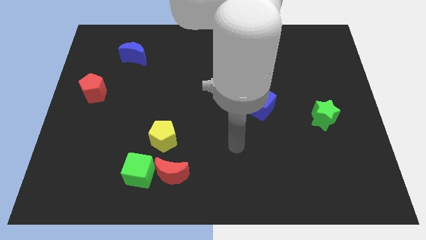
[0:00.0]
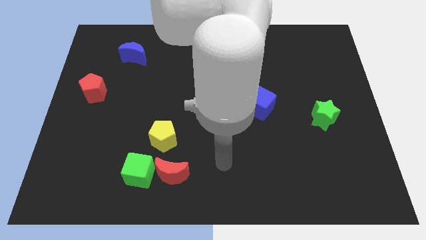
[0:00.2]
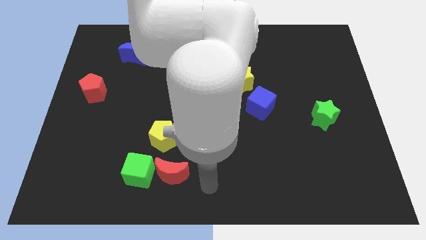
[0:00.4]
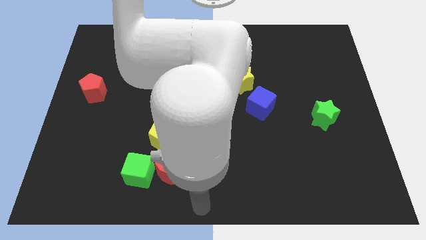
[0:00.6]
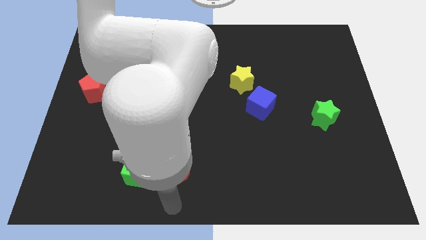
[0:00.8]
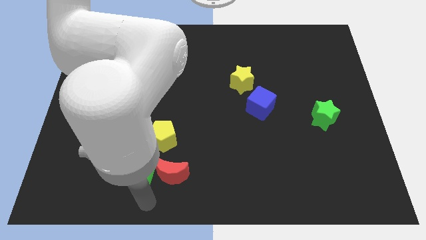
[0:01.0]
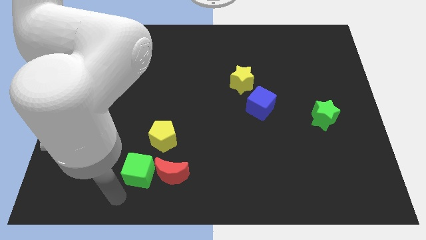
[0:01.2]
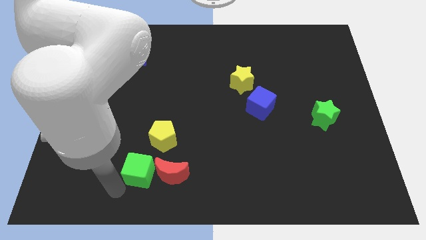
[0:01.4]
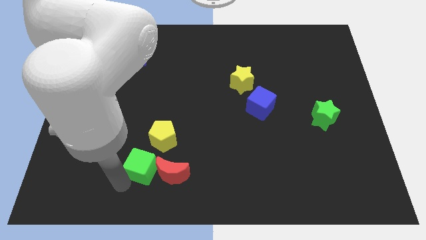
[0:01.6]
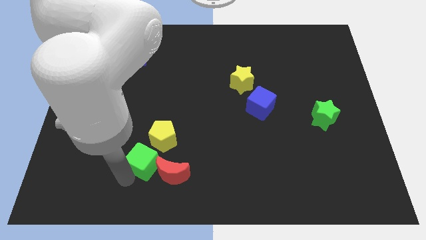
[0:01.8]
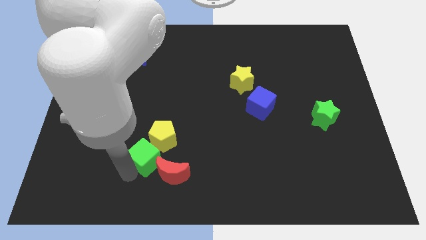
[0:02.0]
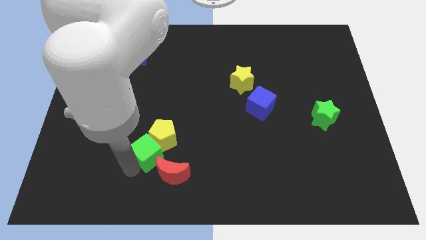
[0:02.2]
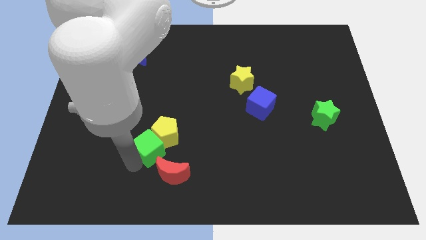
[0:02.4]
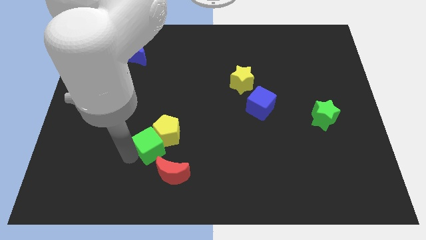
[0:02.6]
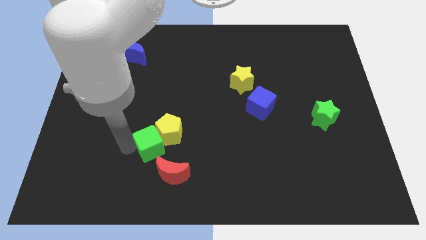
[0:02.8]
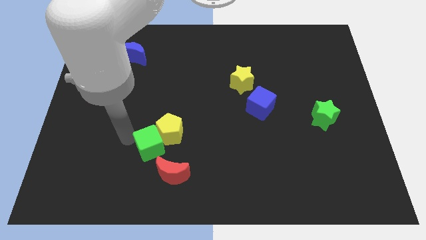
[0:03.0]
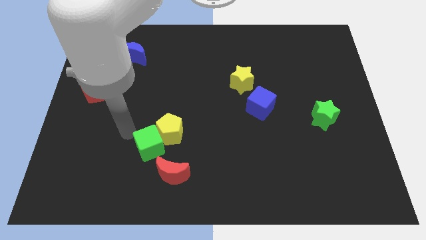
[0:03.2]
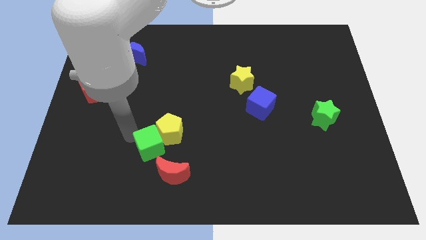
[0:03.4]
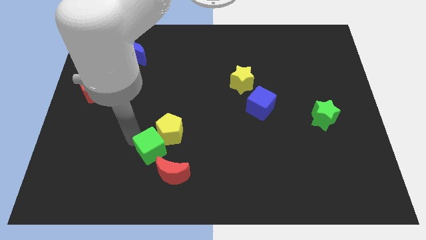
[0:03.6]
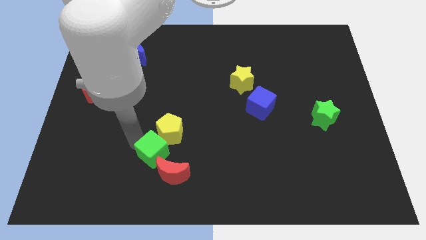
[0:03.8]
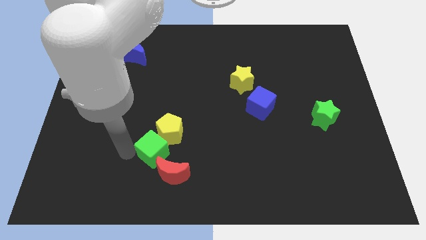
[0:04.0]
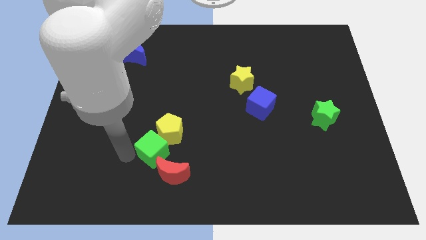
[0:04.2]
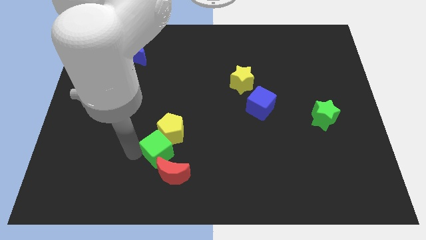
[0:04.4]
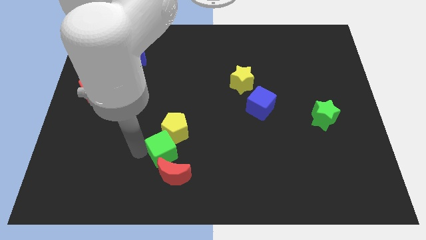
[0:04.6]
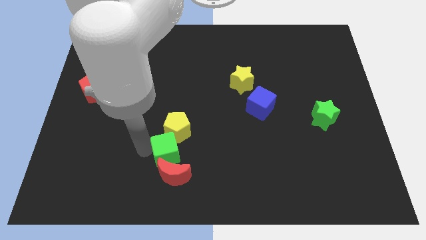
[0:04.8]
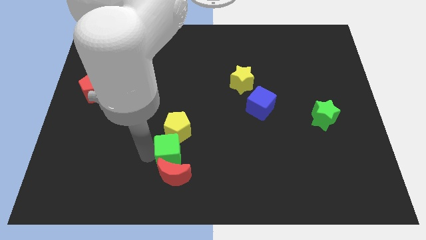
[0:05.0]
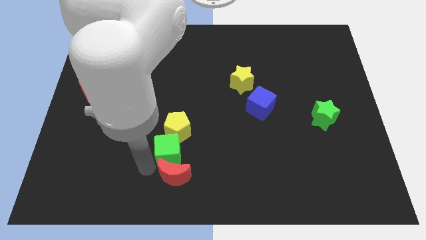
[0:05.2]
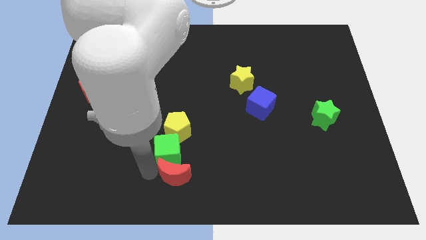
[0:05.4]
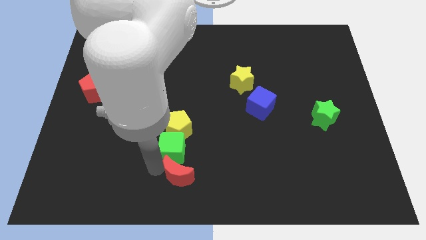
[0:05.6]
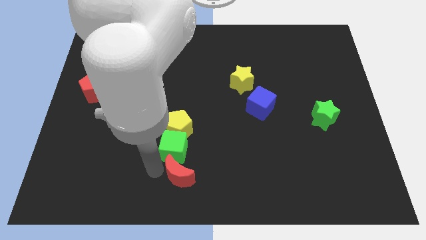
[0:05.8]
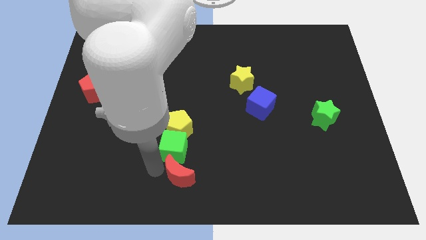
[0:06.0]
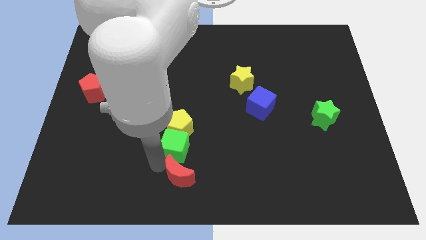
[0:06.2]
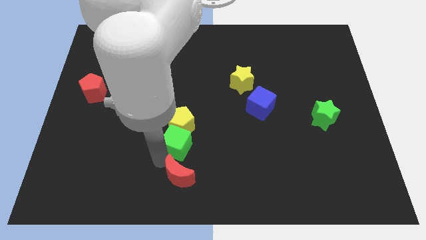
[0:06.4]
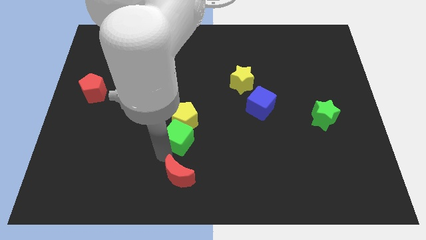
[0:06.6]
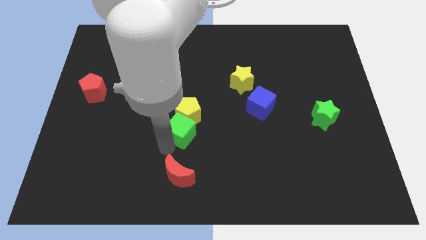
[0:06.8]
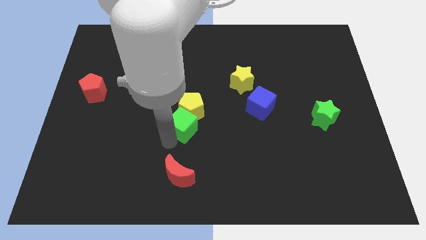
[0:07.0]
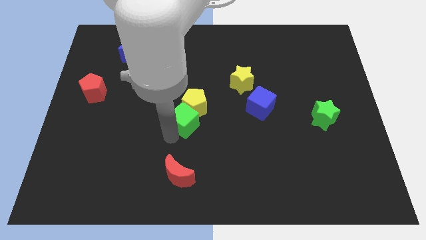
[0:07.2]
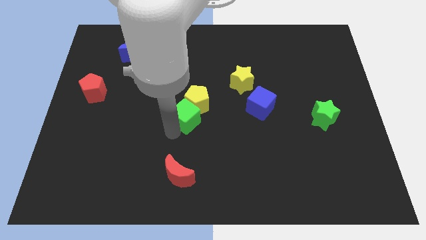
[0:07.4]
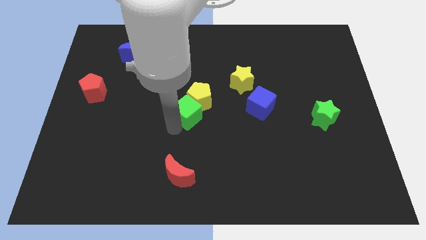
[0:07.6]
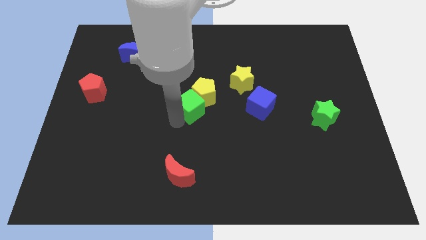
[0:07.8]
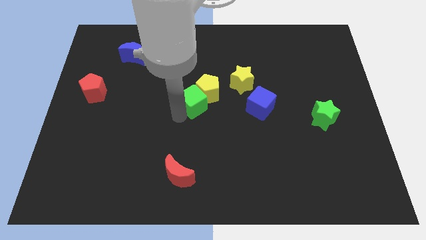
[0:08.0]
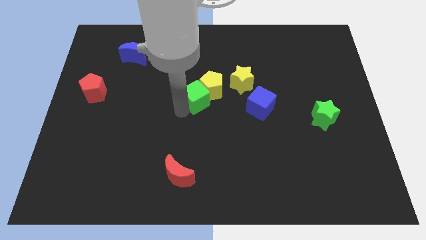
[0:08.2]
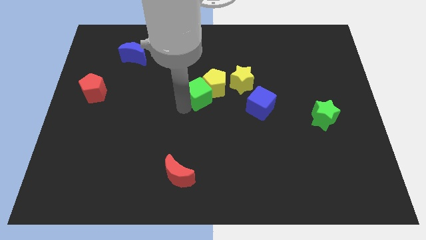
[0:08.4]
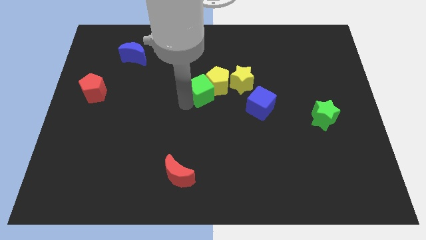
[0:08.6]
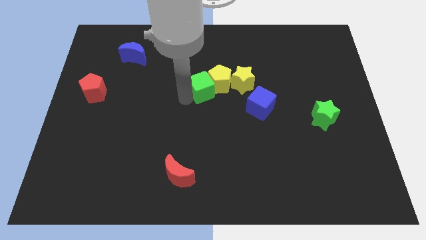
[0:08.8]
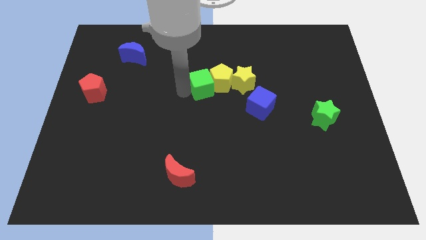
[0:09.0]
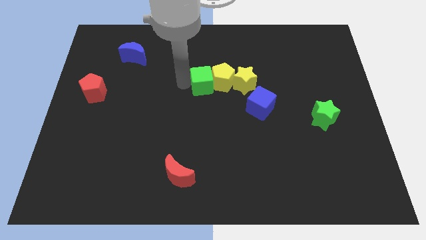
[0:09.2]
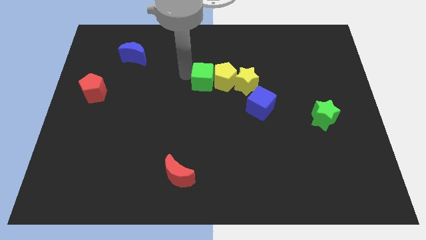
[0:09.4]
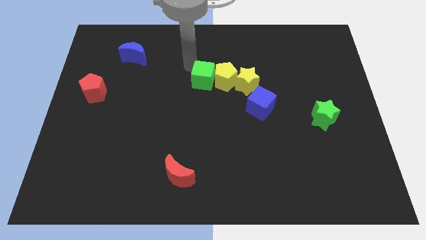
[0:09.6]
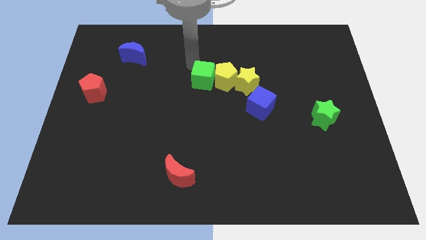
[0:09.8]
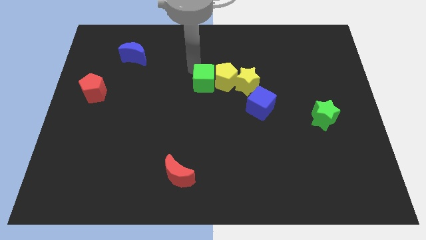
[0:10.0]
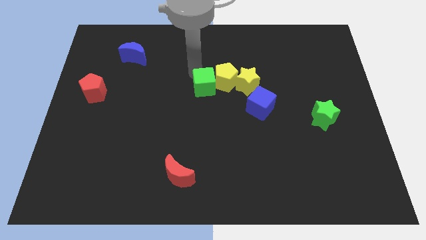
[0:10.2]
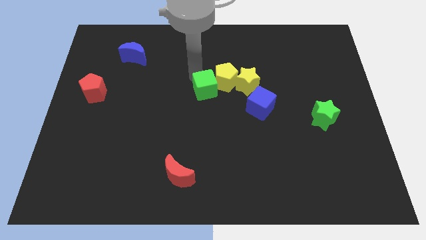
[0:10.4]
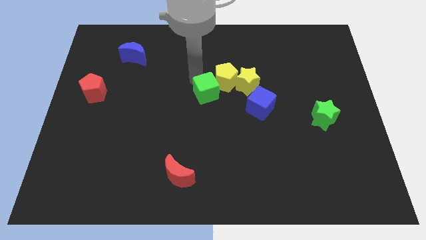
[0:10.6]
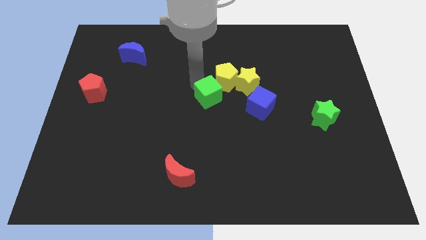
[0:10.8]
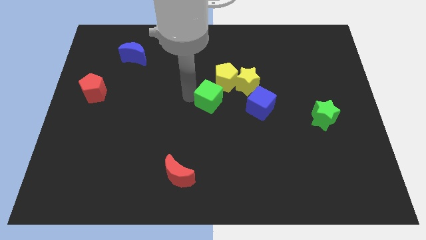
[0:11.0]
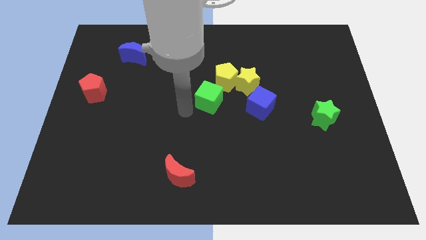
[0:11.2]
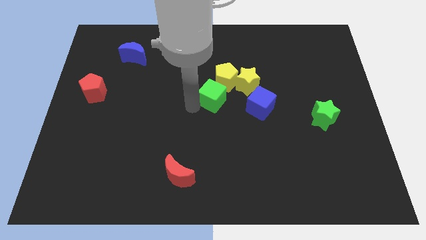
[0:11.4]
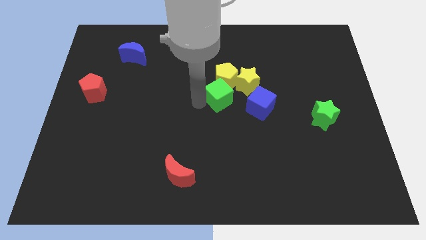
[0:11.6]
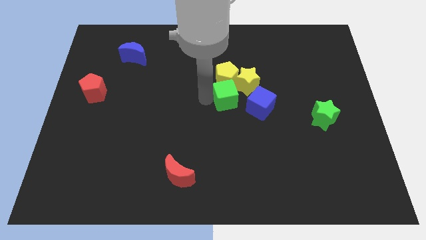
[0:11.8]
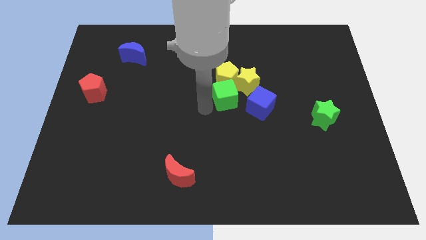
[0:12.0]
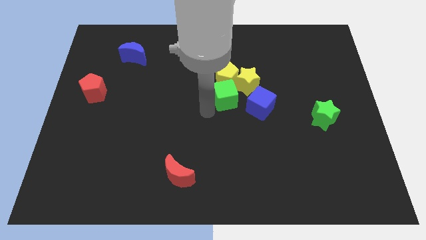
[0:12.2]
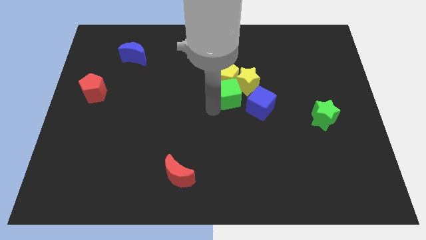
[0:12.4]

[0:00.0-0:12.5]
move the green cube towards the yellow star

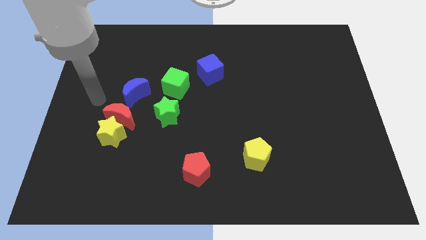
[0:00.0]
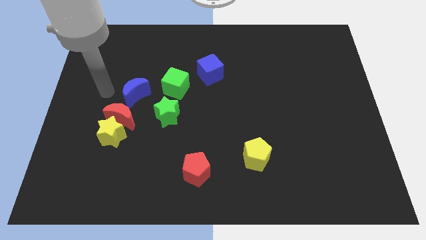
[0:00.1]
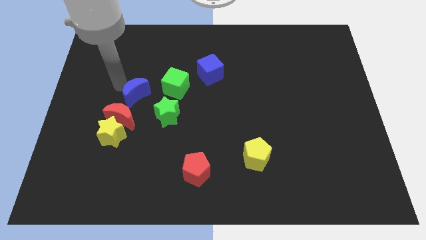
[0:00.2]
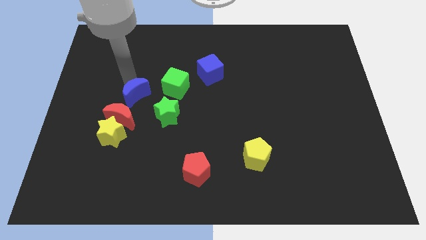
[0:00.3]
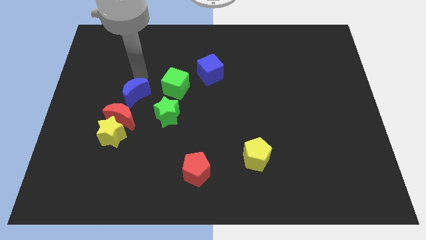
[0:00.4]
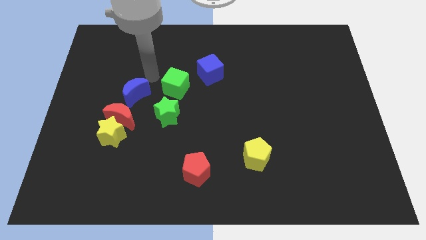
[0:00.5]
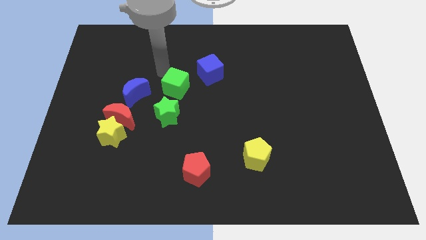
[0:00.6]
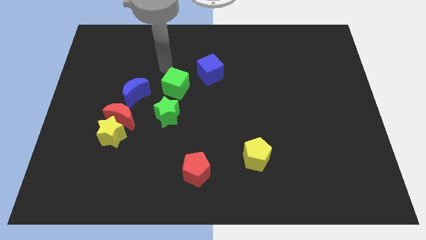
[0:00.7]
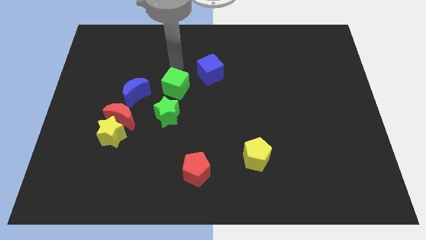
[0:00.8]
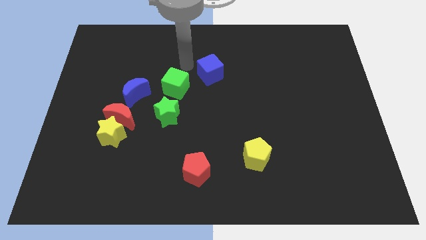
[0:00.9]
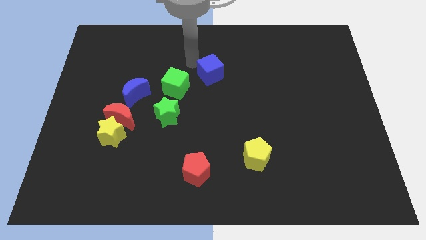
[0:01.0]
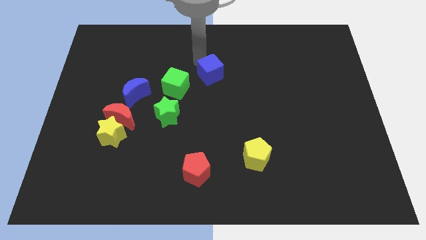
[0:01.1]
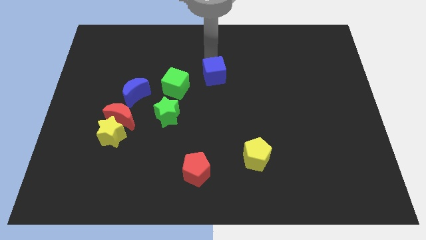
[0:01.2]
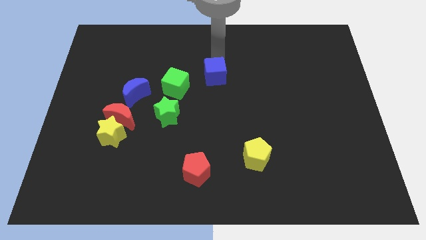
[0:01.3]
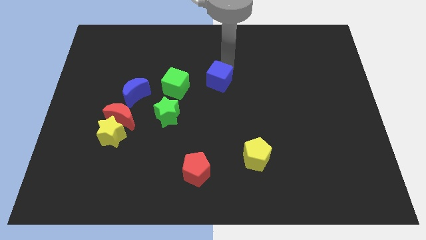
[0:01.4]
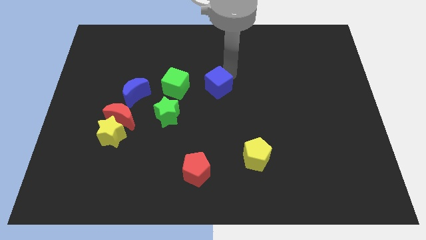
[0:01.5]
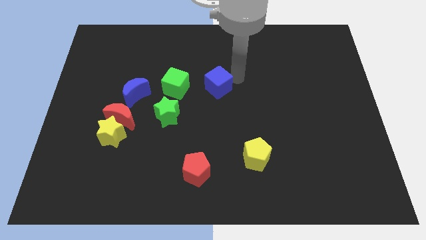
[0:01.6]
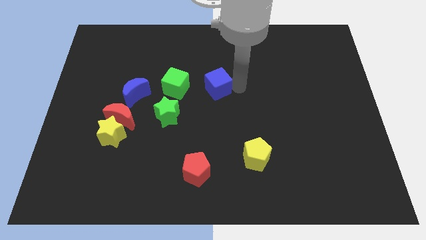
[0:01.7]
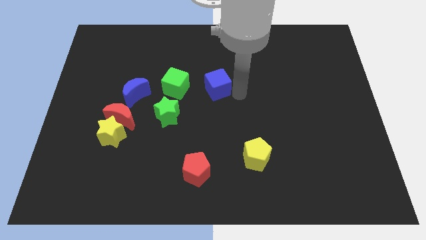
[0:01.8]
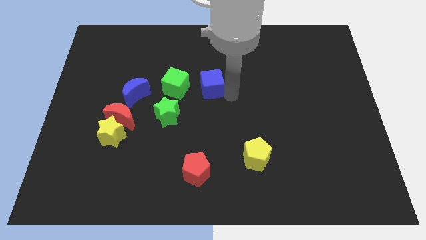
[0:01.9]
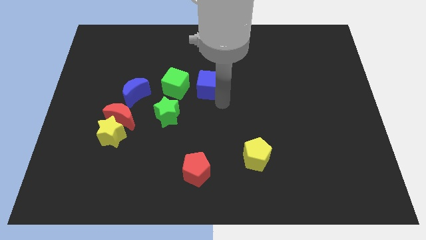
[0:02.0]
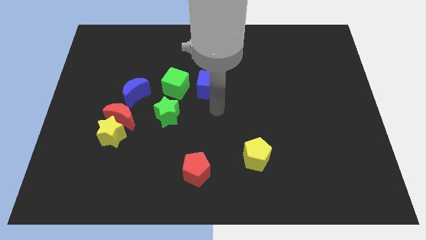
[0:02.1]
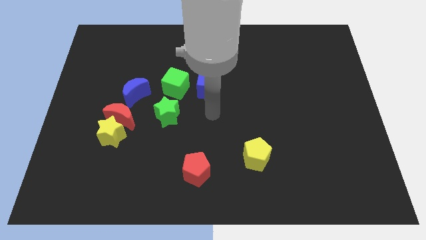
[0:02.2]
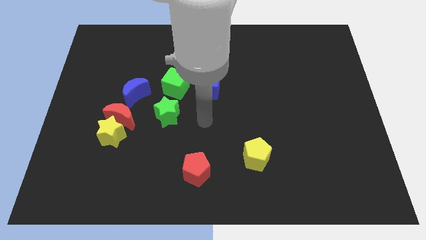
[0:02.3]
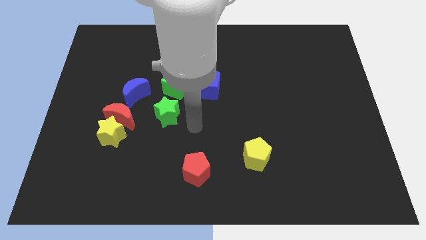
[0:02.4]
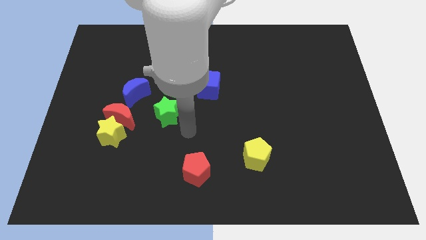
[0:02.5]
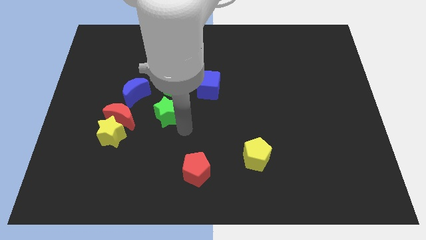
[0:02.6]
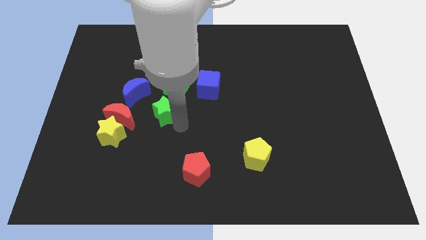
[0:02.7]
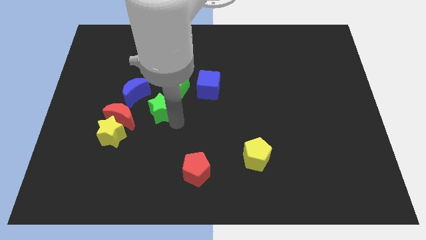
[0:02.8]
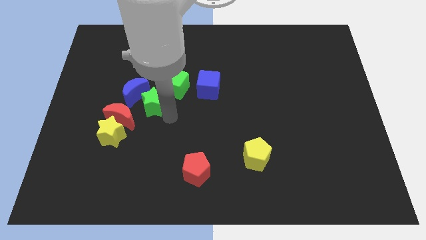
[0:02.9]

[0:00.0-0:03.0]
push the green star close to the blue moon
